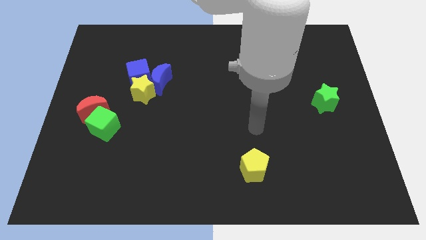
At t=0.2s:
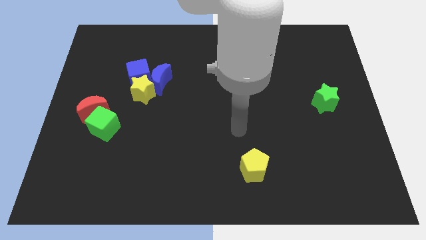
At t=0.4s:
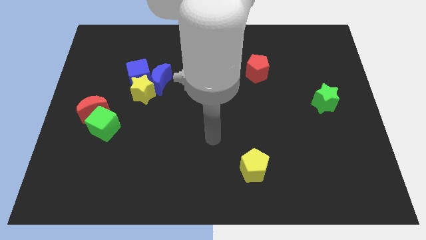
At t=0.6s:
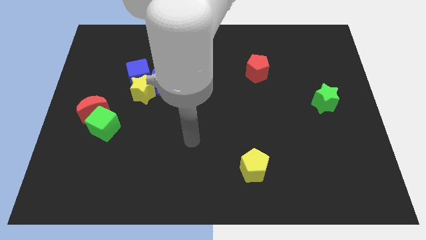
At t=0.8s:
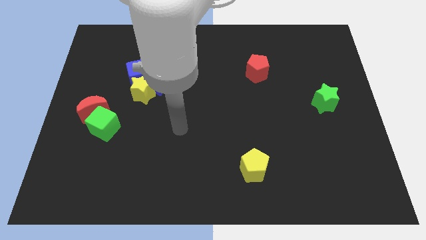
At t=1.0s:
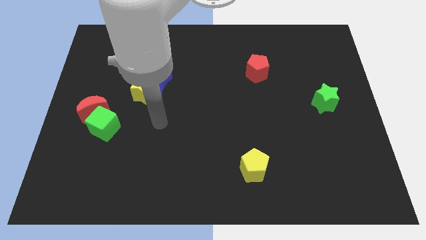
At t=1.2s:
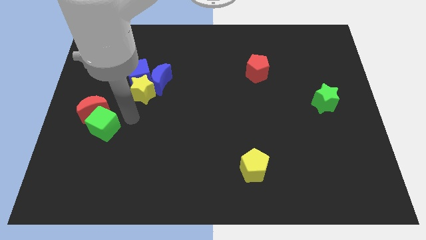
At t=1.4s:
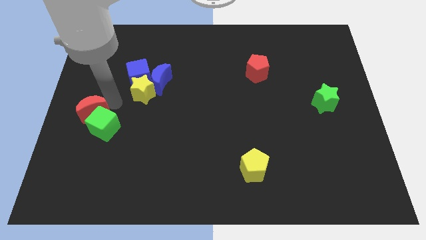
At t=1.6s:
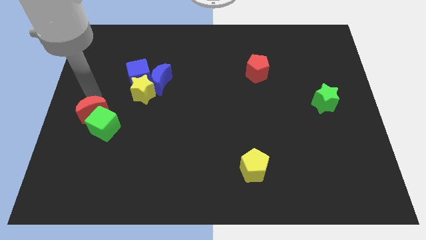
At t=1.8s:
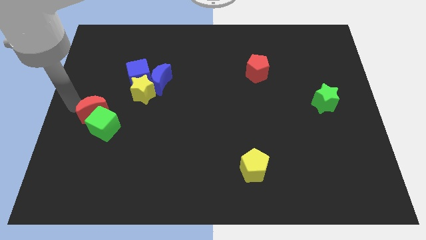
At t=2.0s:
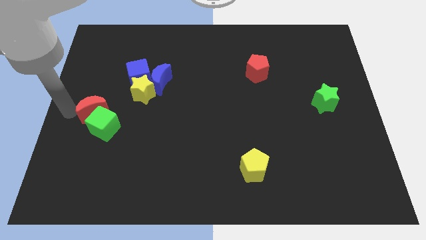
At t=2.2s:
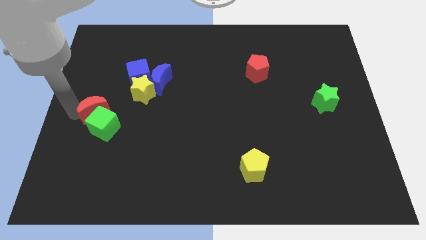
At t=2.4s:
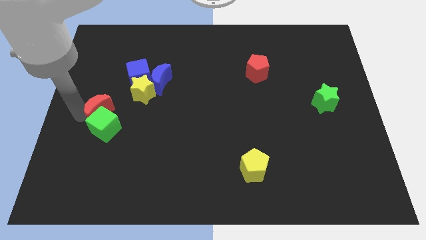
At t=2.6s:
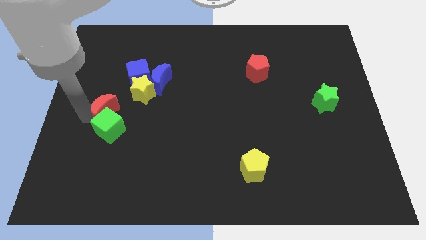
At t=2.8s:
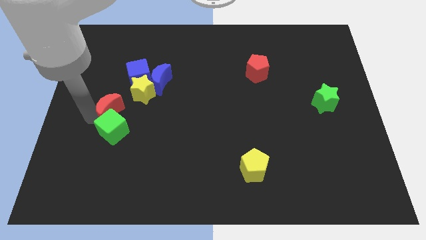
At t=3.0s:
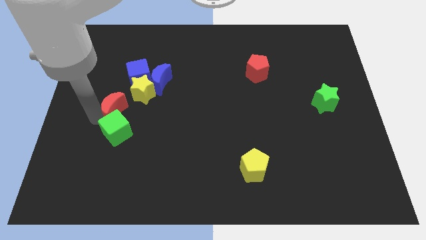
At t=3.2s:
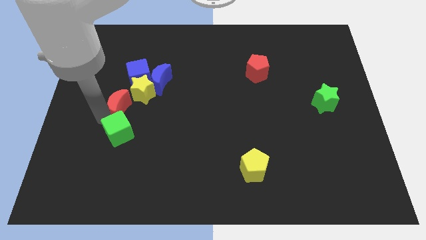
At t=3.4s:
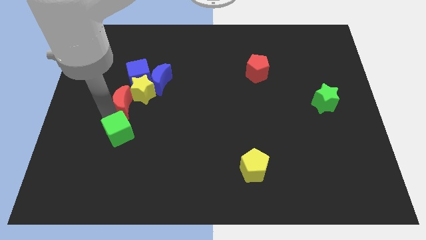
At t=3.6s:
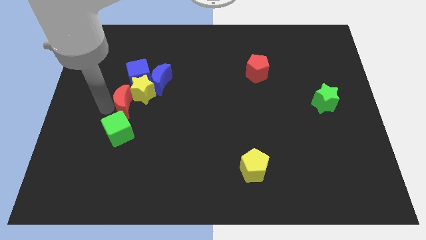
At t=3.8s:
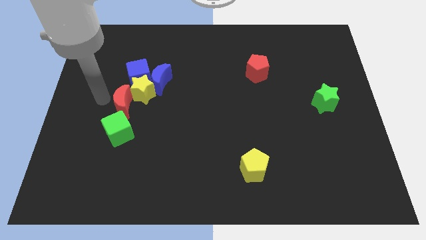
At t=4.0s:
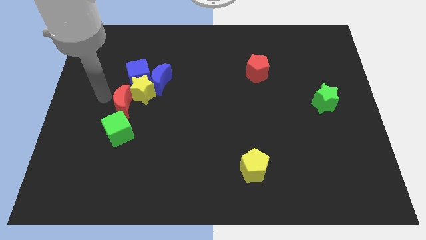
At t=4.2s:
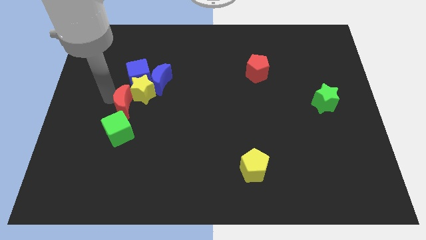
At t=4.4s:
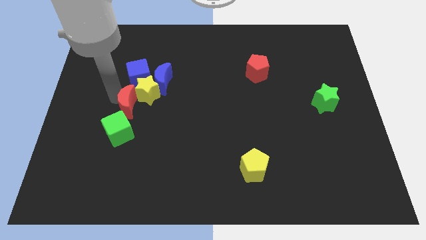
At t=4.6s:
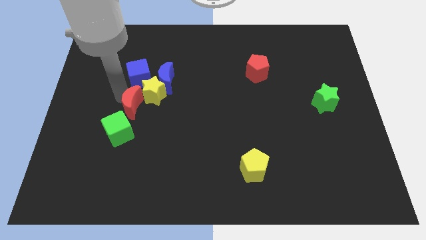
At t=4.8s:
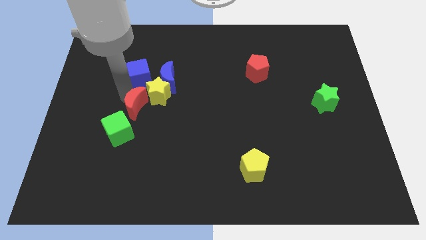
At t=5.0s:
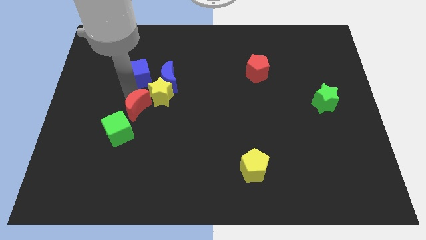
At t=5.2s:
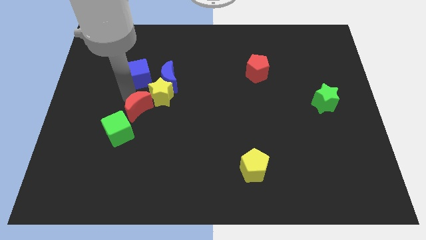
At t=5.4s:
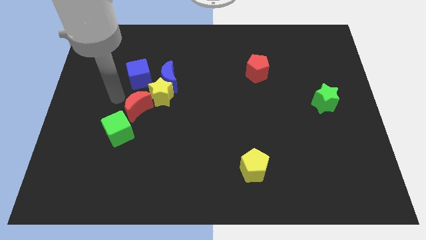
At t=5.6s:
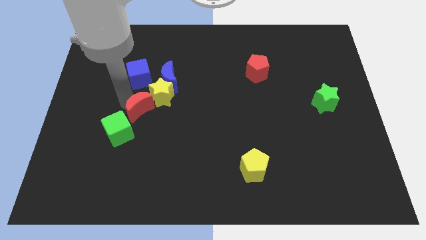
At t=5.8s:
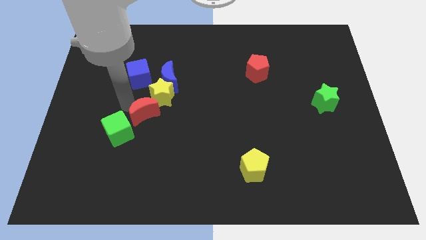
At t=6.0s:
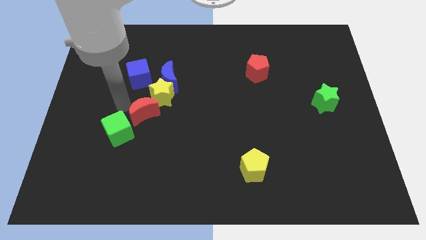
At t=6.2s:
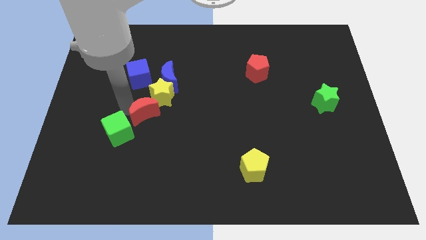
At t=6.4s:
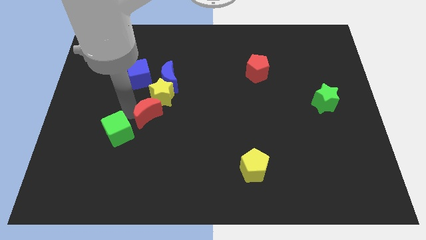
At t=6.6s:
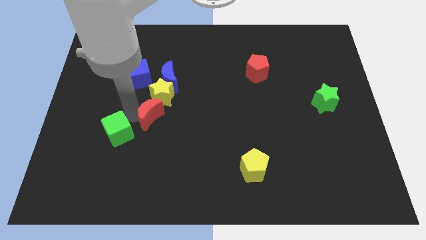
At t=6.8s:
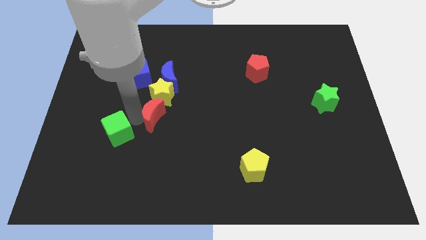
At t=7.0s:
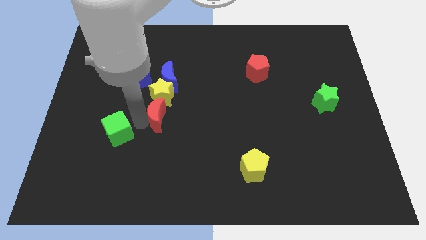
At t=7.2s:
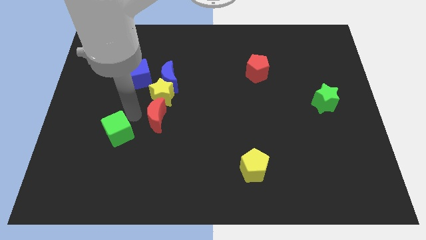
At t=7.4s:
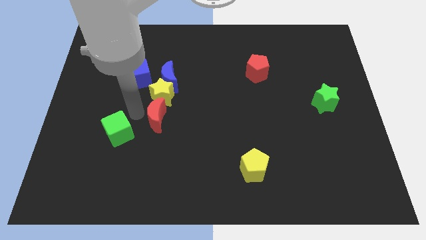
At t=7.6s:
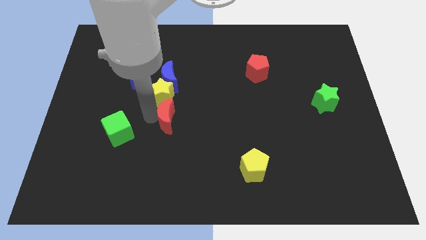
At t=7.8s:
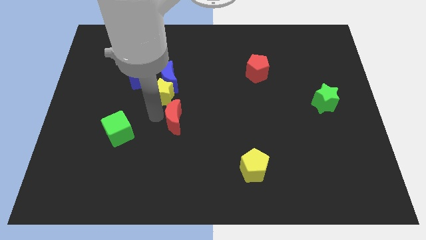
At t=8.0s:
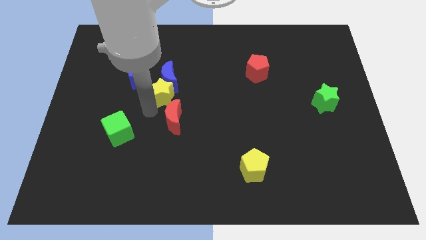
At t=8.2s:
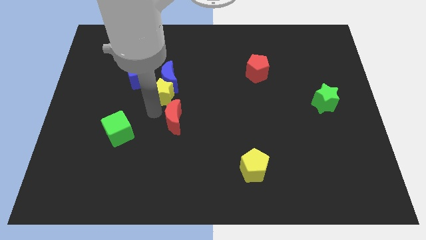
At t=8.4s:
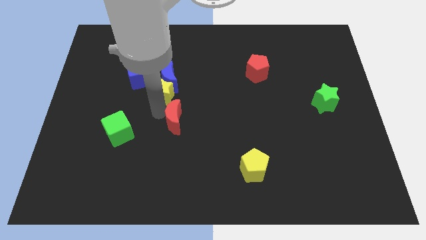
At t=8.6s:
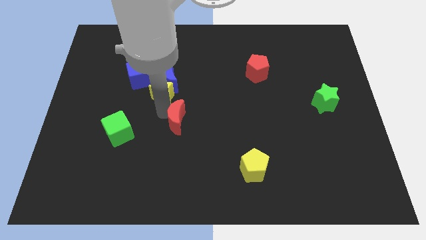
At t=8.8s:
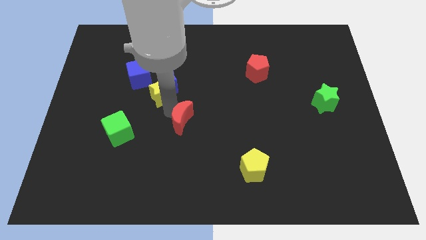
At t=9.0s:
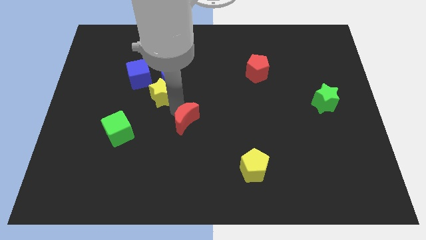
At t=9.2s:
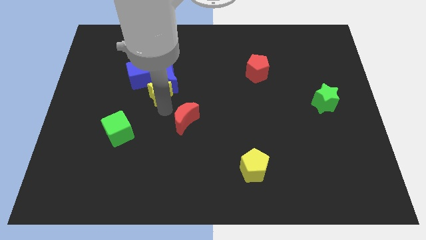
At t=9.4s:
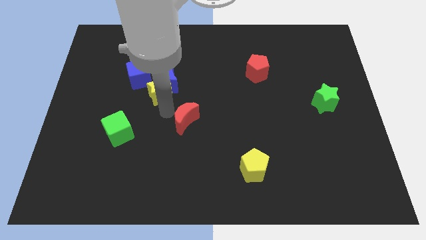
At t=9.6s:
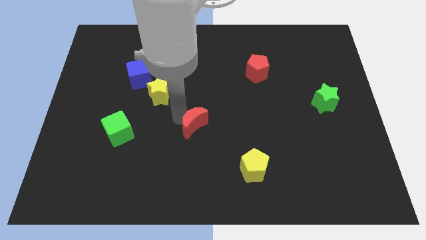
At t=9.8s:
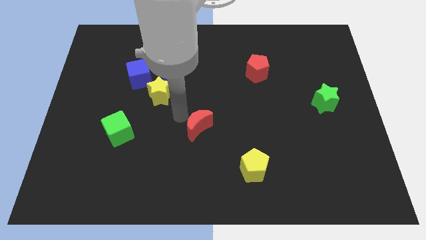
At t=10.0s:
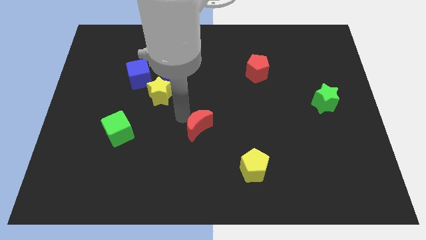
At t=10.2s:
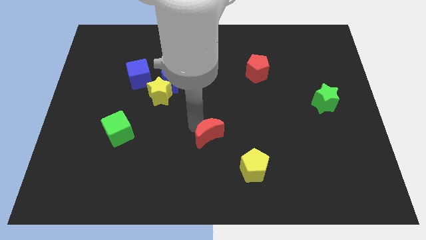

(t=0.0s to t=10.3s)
push the red moon diagonally up and to the left of the yellow pentagon

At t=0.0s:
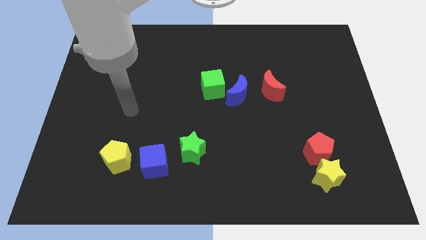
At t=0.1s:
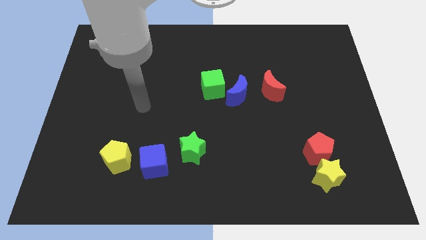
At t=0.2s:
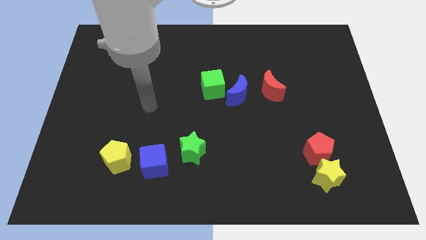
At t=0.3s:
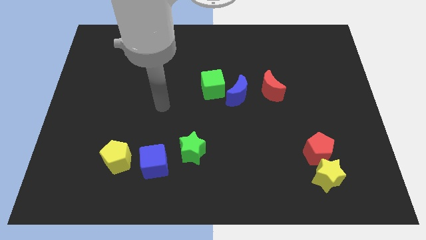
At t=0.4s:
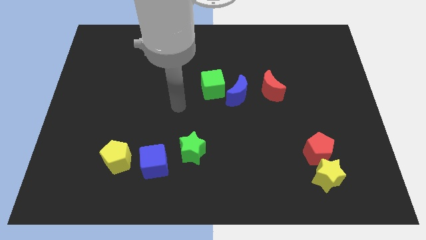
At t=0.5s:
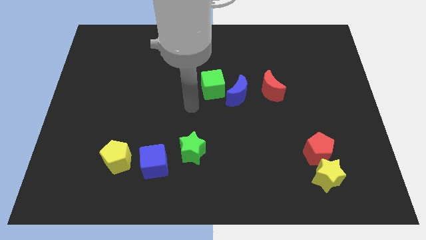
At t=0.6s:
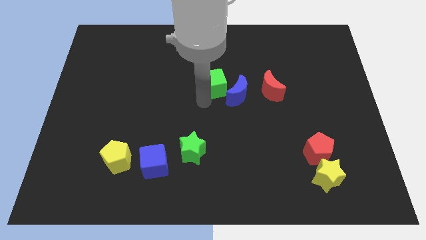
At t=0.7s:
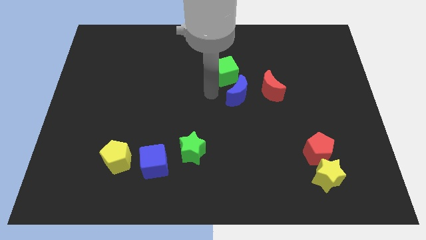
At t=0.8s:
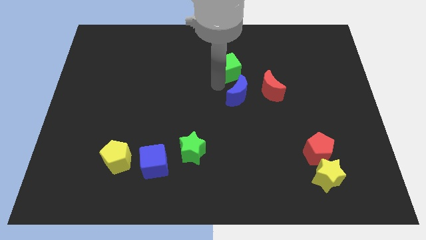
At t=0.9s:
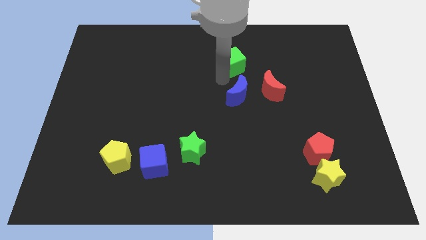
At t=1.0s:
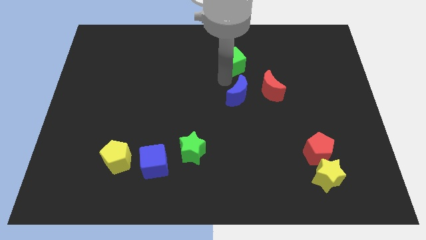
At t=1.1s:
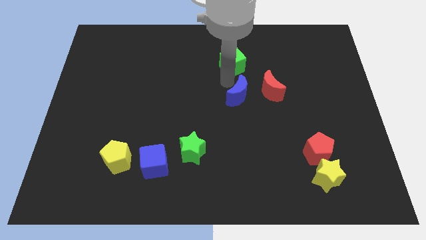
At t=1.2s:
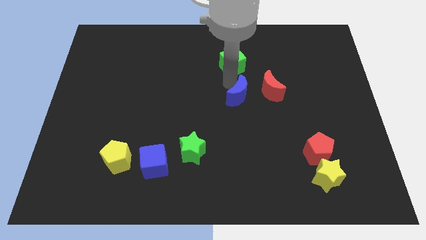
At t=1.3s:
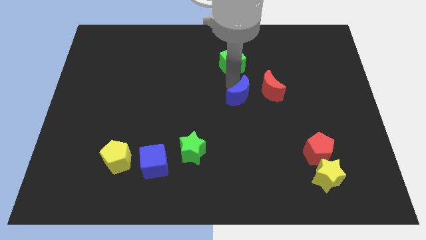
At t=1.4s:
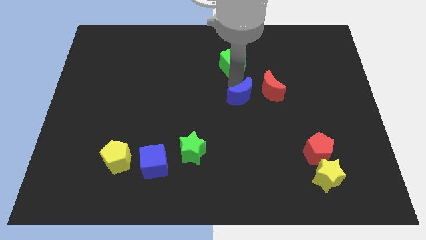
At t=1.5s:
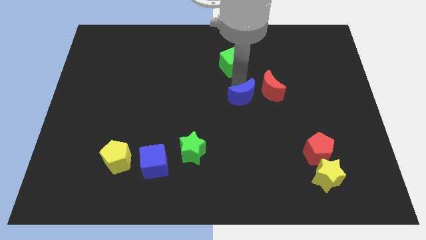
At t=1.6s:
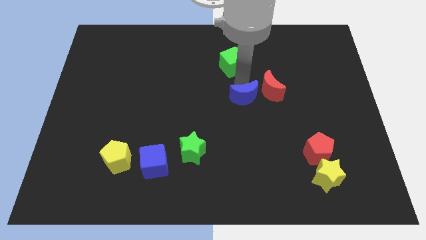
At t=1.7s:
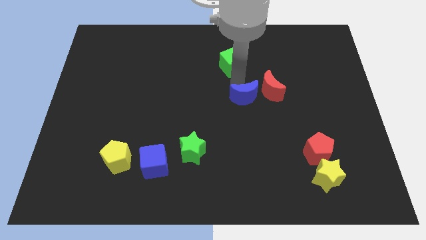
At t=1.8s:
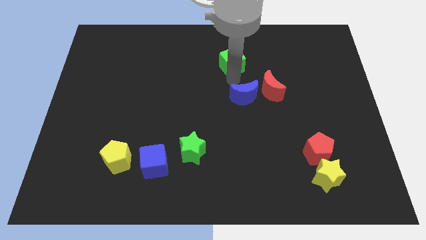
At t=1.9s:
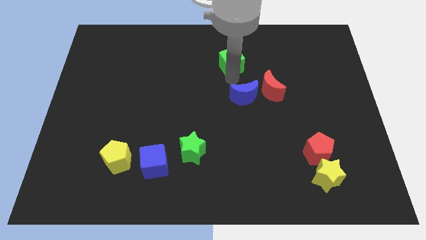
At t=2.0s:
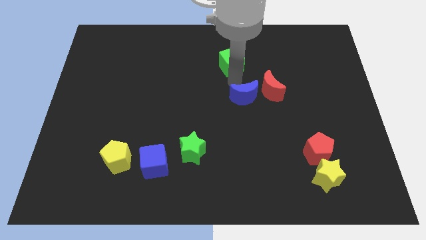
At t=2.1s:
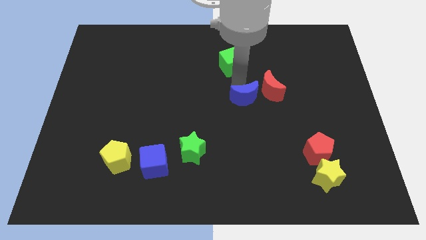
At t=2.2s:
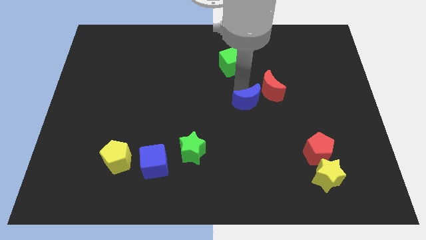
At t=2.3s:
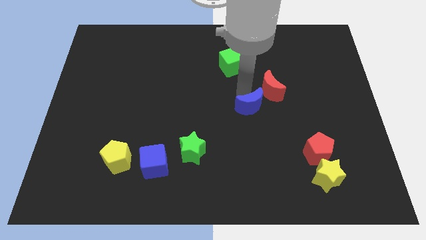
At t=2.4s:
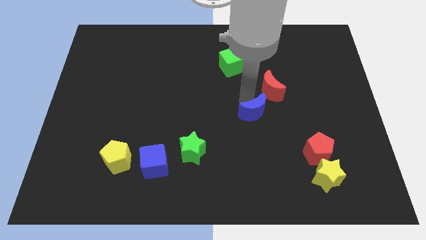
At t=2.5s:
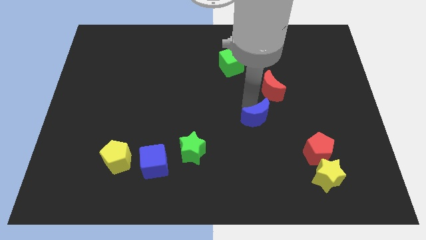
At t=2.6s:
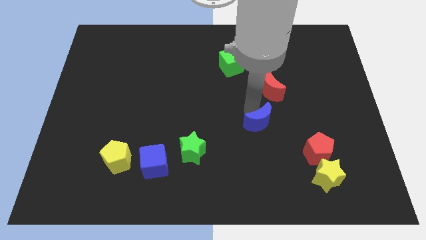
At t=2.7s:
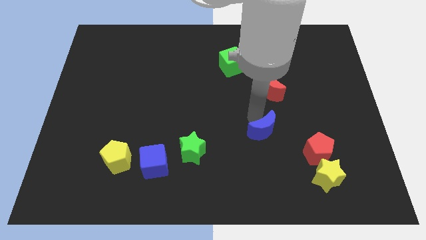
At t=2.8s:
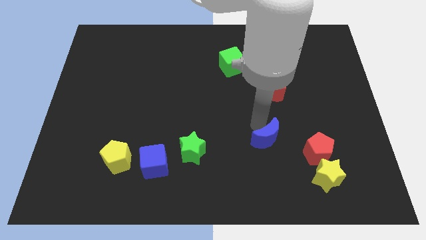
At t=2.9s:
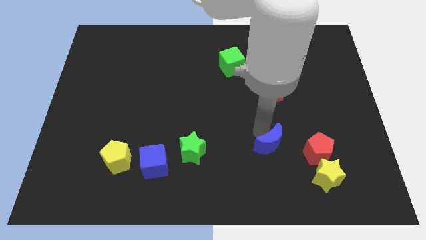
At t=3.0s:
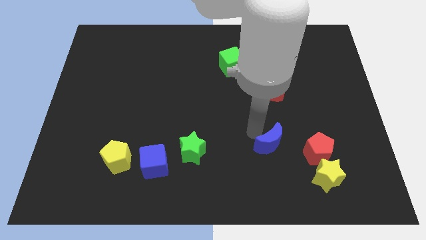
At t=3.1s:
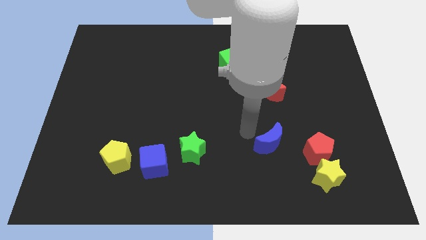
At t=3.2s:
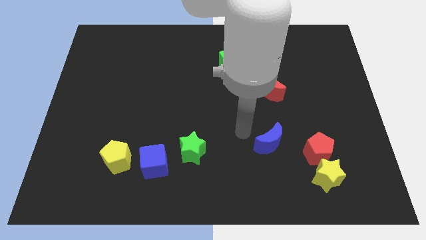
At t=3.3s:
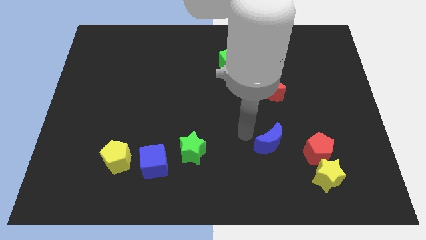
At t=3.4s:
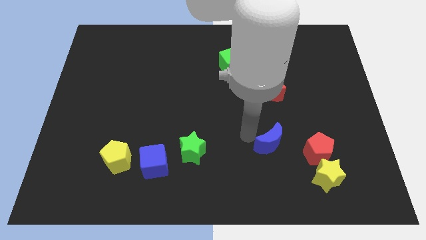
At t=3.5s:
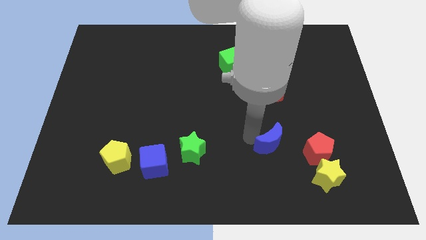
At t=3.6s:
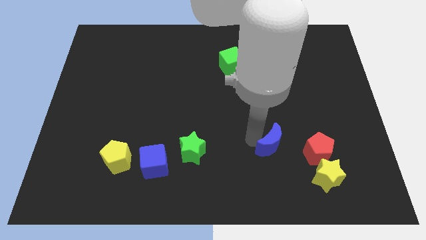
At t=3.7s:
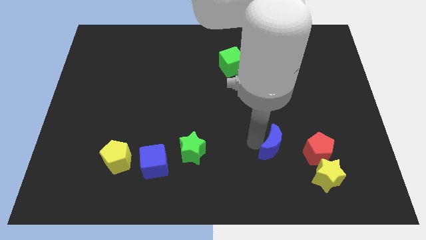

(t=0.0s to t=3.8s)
push the blue moon to the top left of the yellow star
